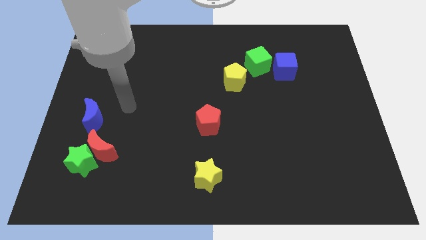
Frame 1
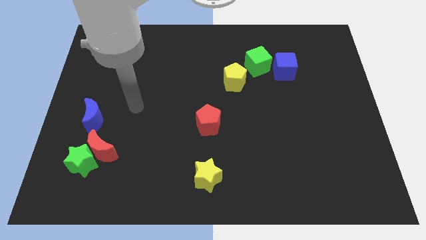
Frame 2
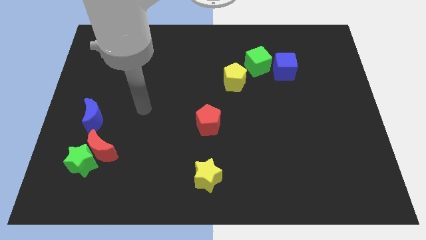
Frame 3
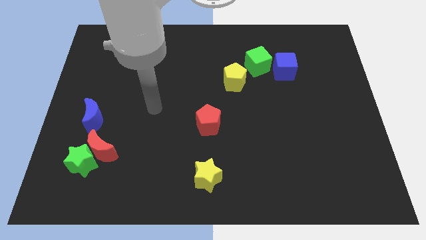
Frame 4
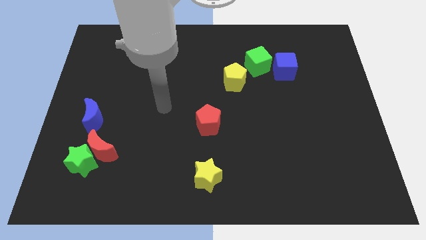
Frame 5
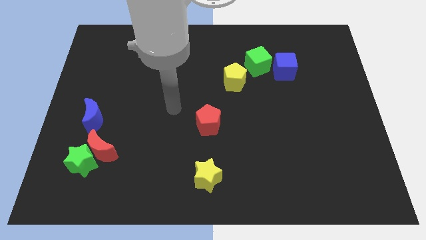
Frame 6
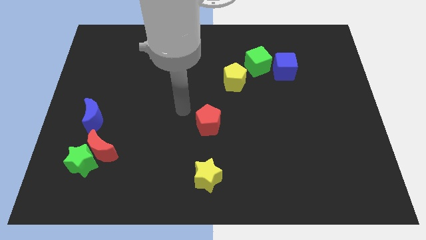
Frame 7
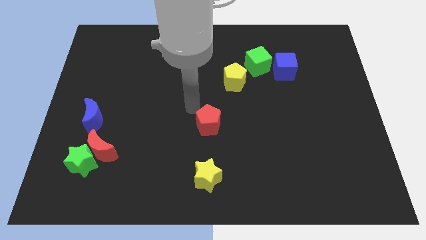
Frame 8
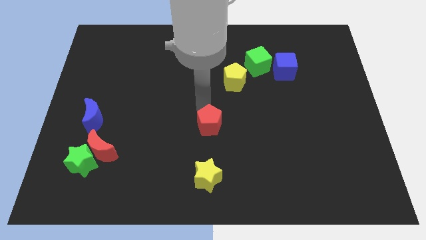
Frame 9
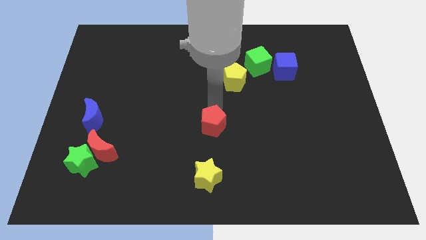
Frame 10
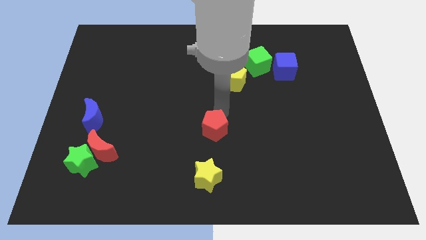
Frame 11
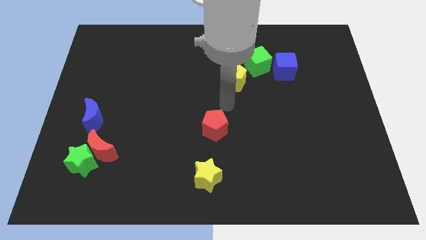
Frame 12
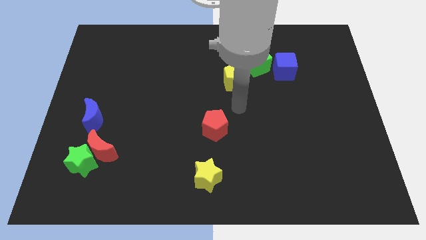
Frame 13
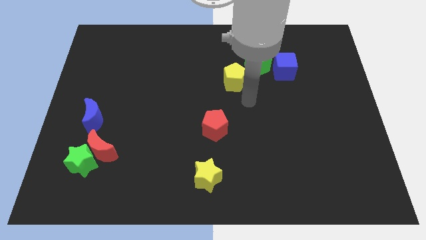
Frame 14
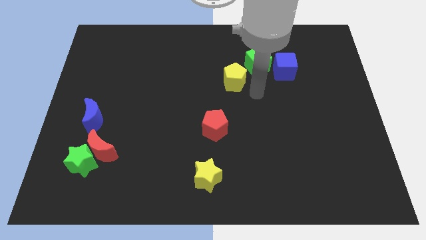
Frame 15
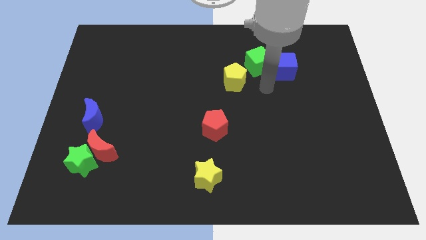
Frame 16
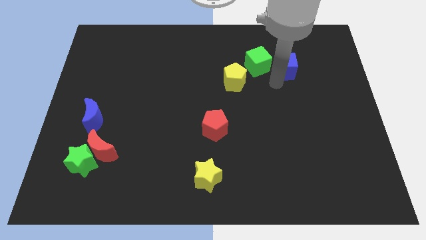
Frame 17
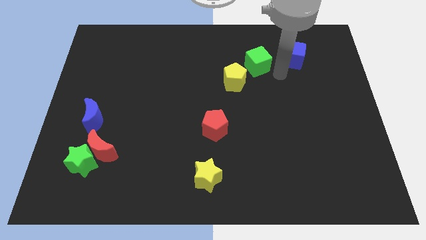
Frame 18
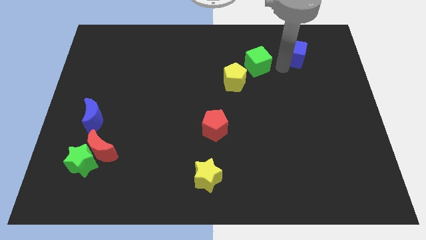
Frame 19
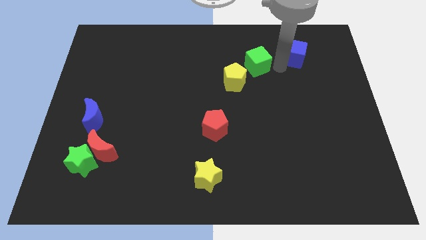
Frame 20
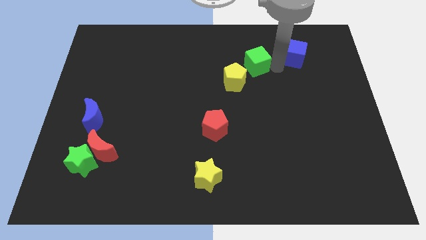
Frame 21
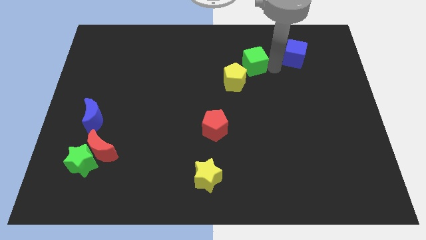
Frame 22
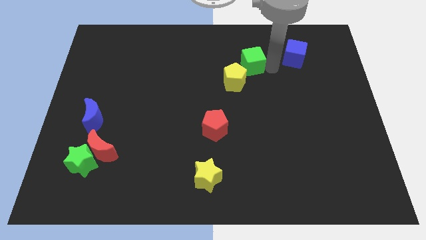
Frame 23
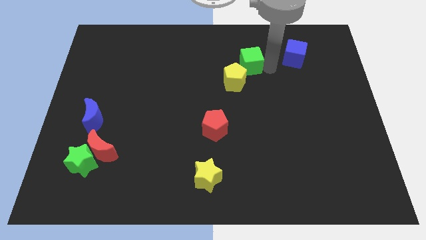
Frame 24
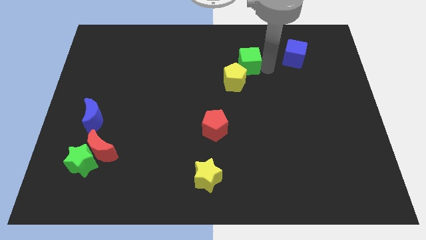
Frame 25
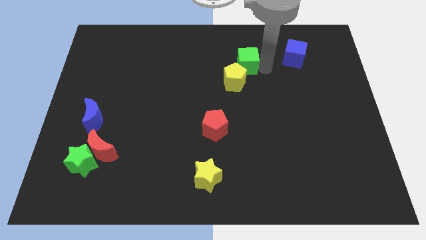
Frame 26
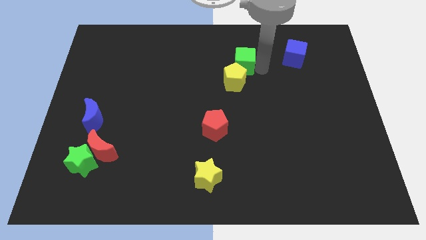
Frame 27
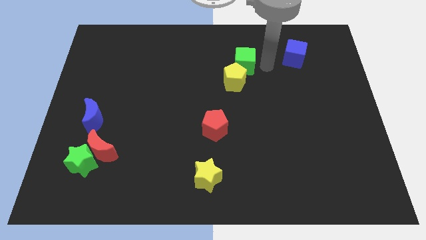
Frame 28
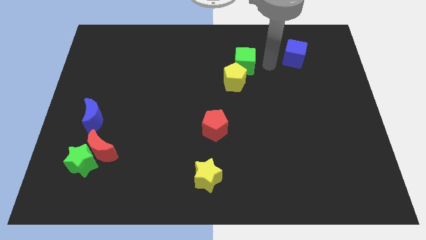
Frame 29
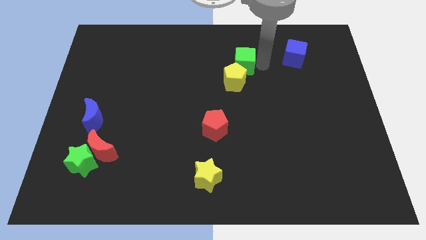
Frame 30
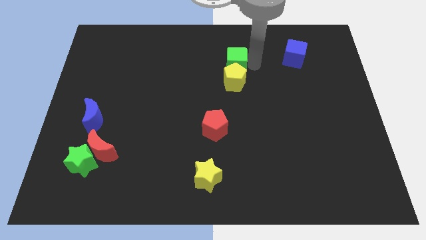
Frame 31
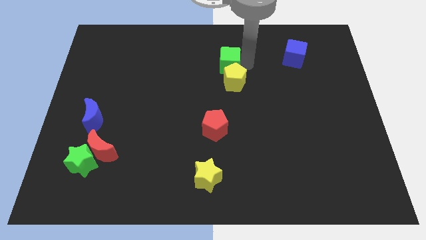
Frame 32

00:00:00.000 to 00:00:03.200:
slightly push the green cube left

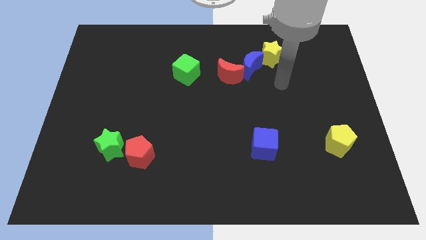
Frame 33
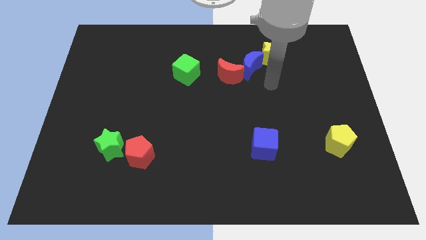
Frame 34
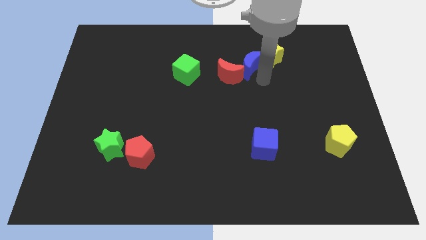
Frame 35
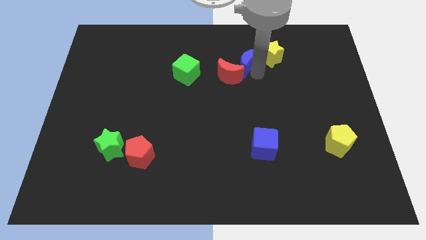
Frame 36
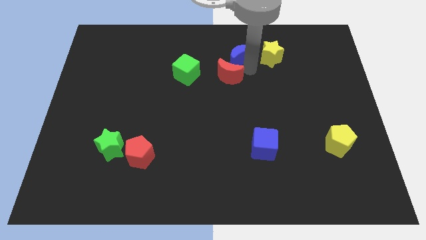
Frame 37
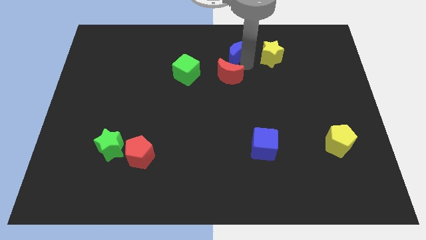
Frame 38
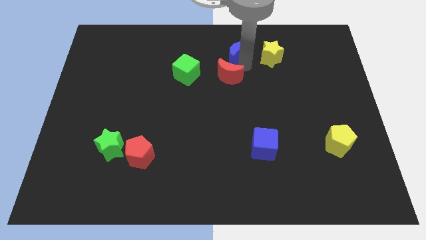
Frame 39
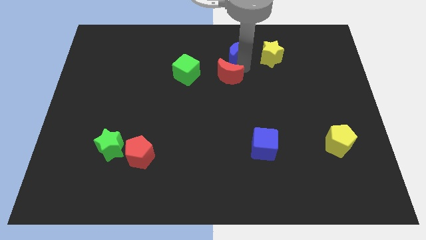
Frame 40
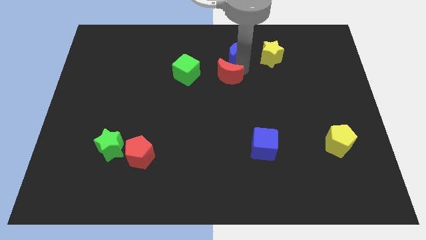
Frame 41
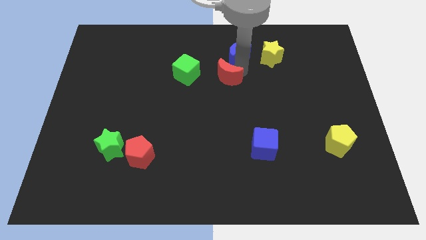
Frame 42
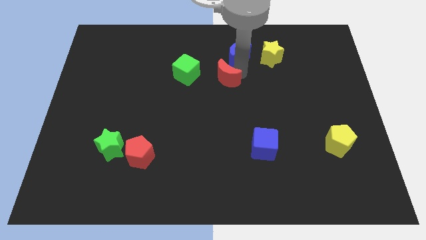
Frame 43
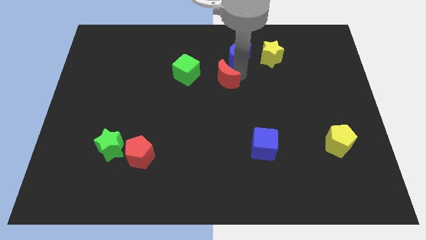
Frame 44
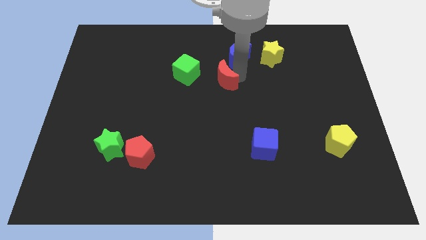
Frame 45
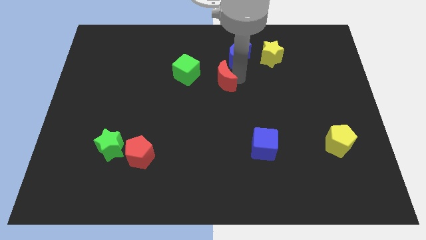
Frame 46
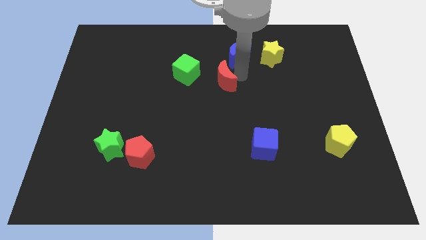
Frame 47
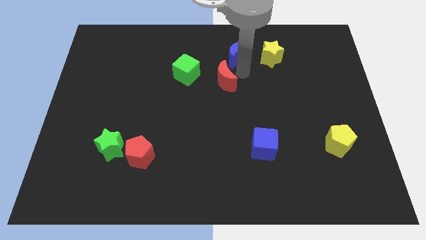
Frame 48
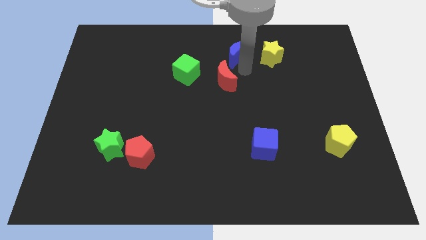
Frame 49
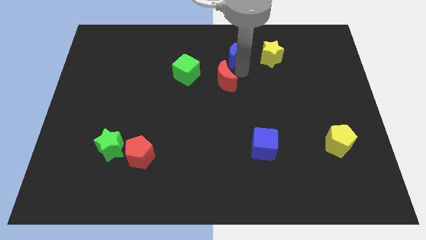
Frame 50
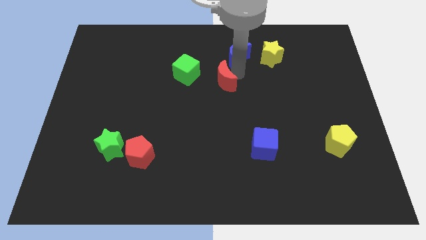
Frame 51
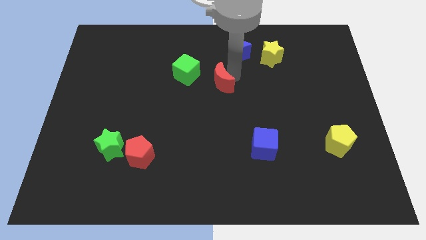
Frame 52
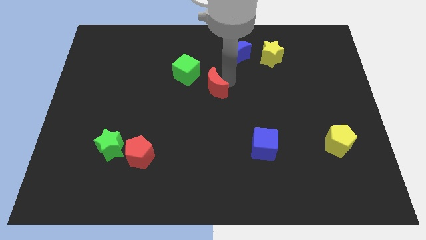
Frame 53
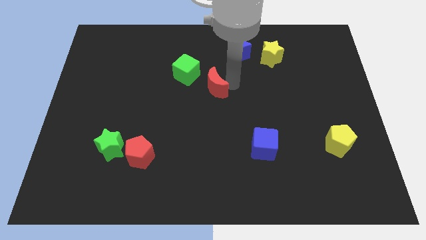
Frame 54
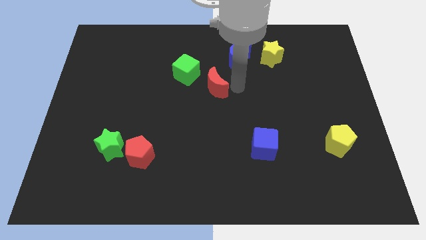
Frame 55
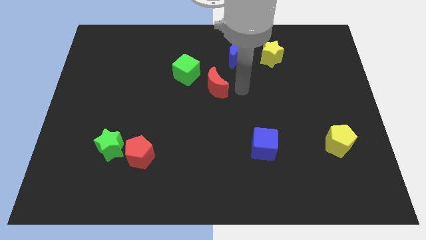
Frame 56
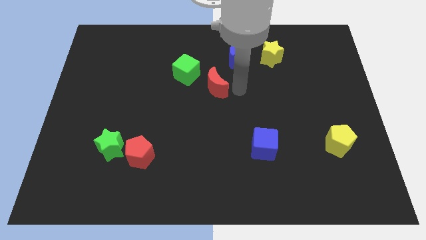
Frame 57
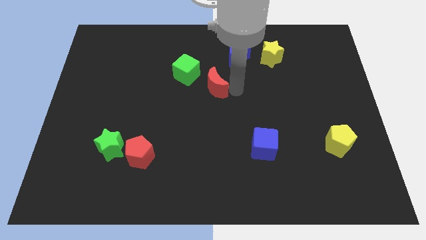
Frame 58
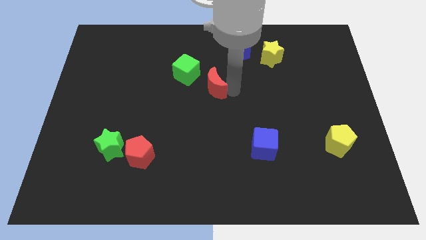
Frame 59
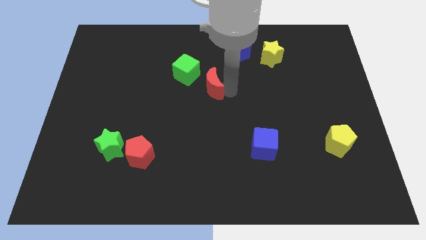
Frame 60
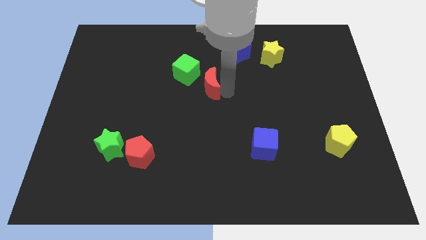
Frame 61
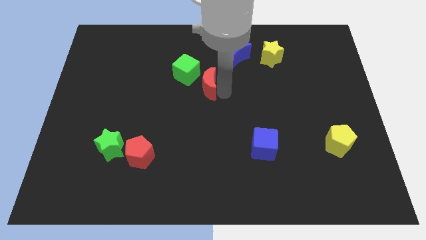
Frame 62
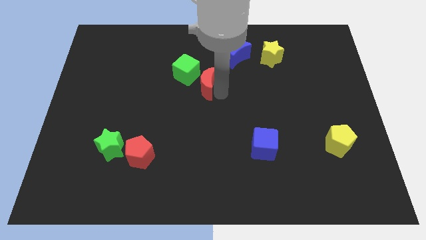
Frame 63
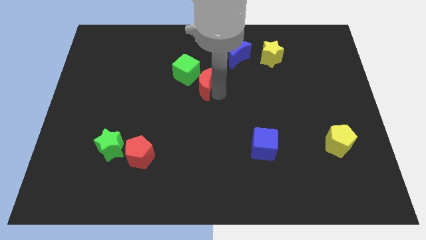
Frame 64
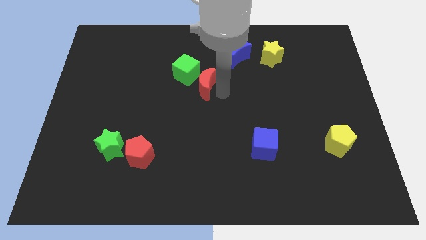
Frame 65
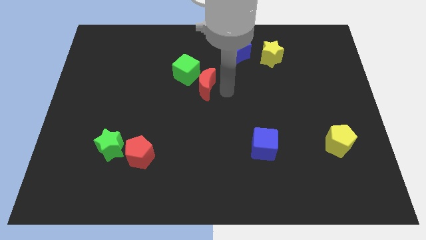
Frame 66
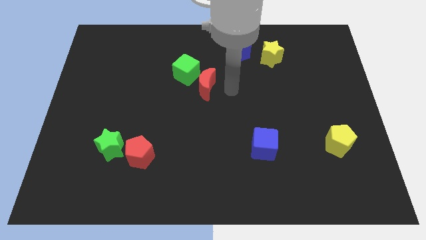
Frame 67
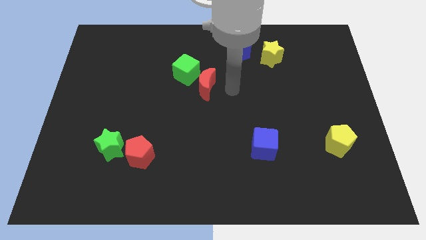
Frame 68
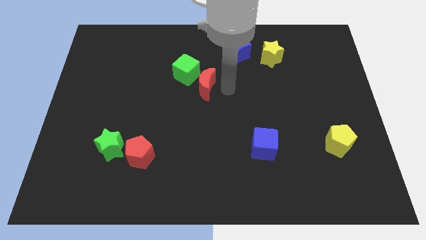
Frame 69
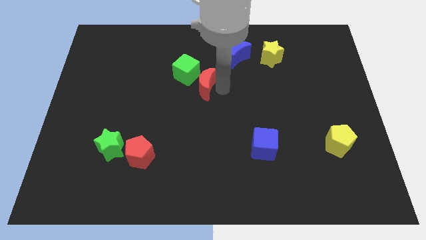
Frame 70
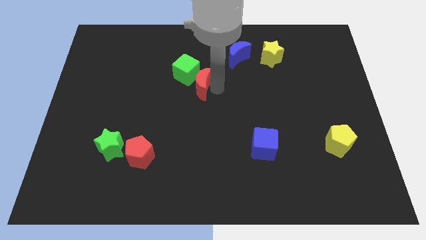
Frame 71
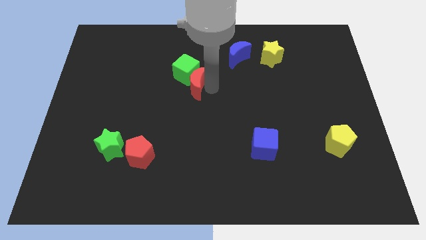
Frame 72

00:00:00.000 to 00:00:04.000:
slightly move the red moon to the left

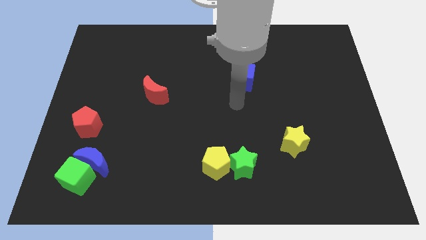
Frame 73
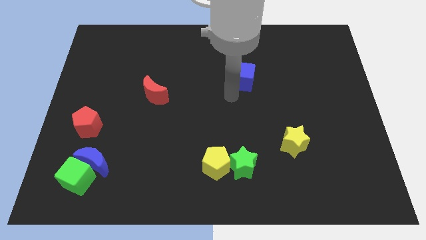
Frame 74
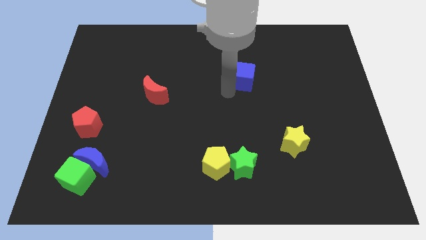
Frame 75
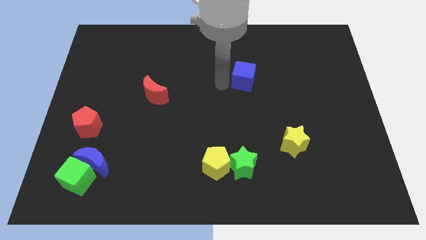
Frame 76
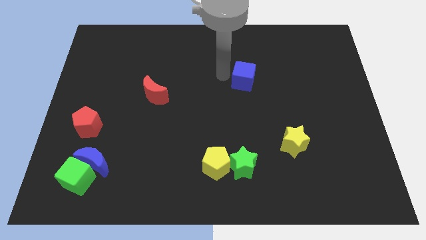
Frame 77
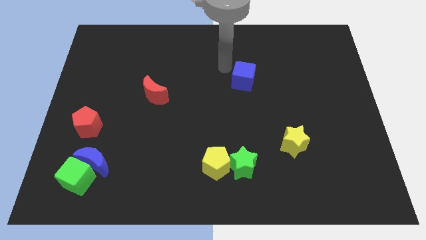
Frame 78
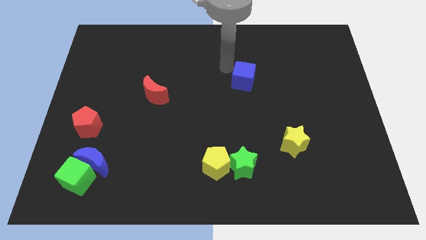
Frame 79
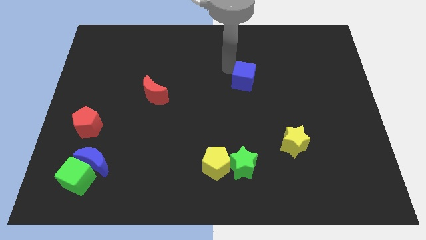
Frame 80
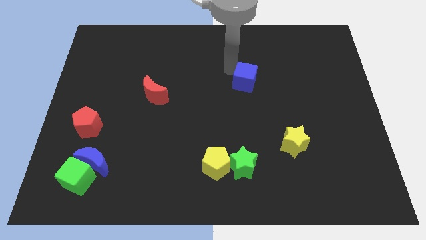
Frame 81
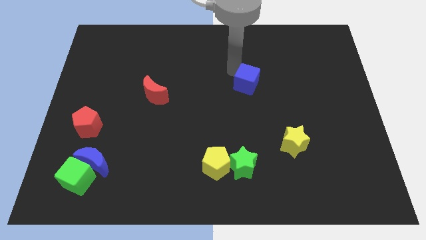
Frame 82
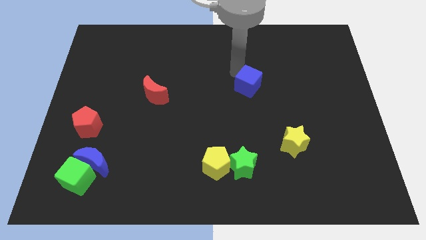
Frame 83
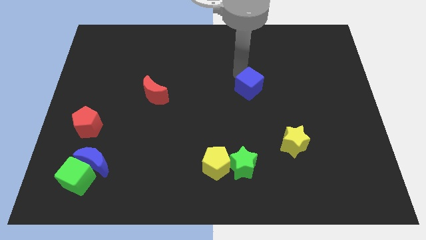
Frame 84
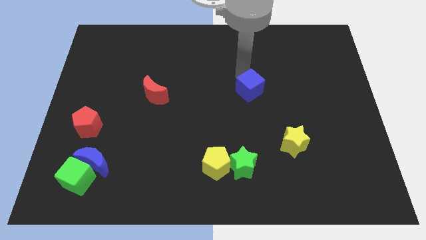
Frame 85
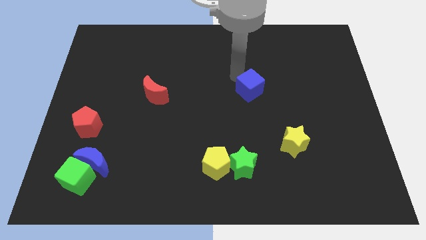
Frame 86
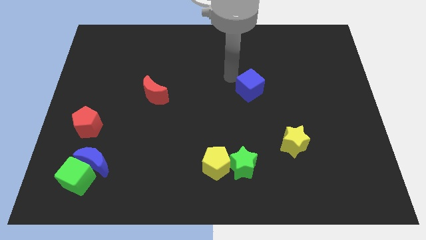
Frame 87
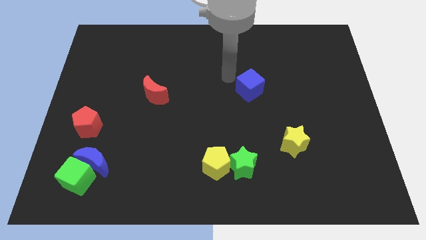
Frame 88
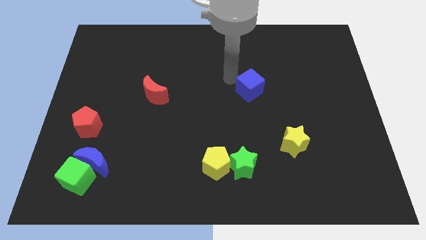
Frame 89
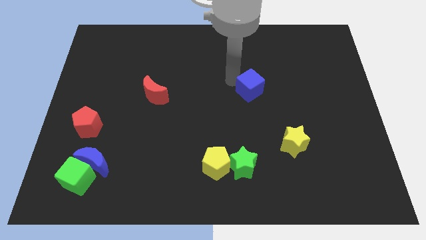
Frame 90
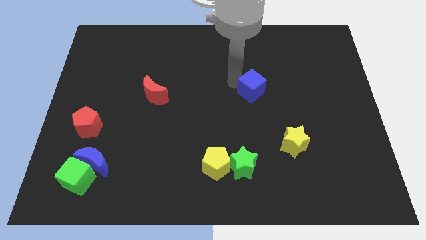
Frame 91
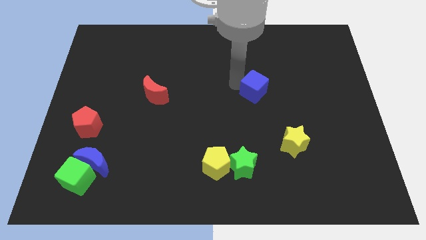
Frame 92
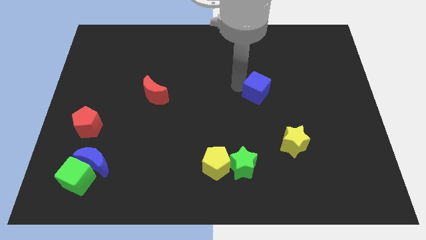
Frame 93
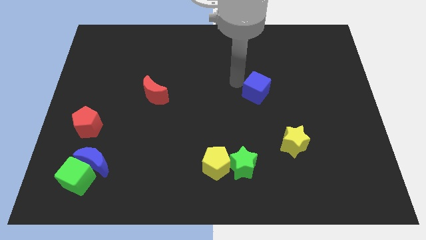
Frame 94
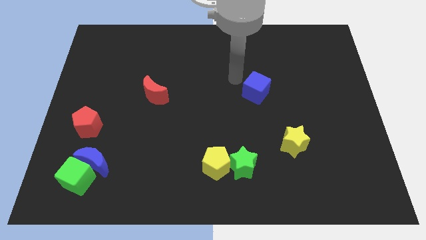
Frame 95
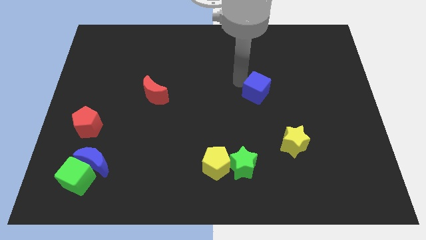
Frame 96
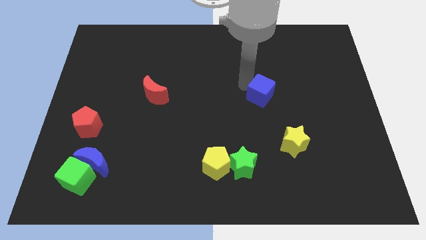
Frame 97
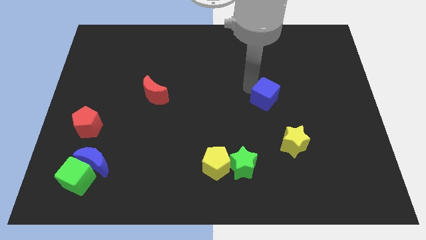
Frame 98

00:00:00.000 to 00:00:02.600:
slide the blue cube downwards and right diagonally a little
